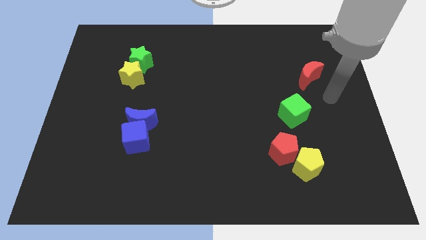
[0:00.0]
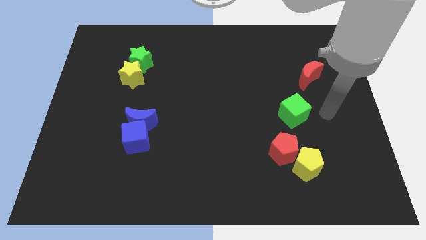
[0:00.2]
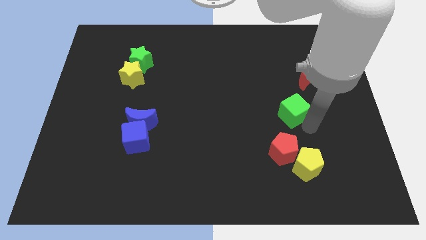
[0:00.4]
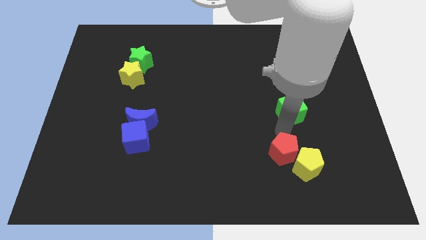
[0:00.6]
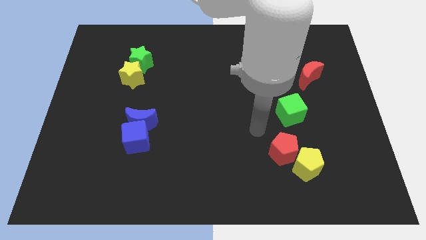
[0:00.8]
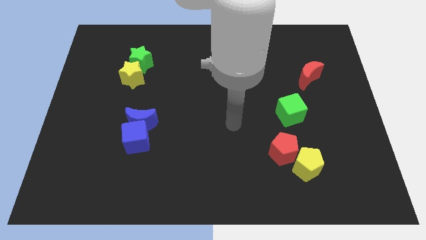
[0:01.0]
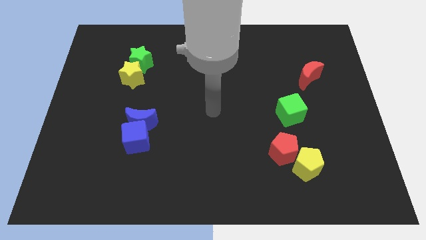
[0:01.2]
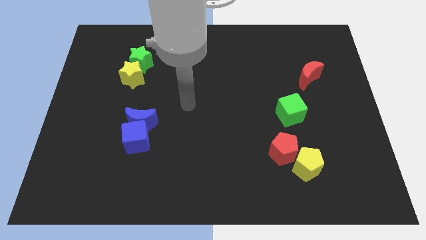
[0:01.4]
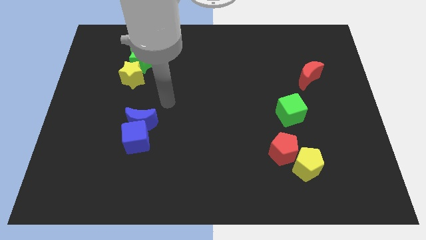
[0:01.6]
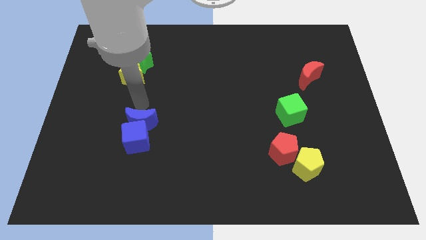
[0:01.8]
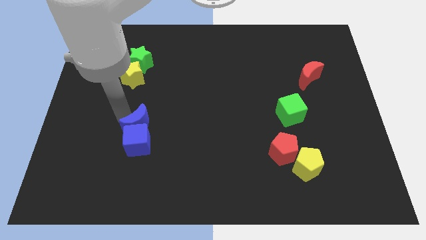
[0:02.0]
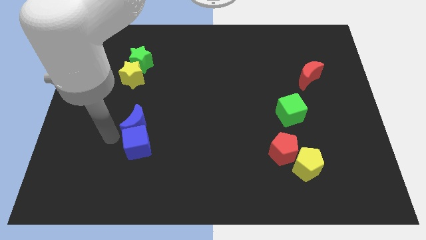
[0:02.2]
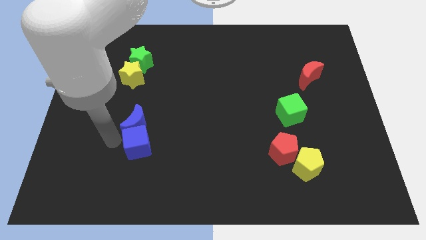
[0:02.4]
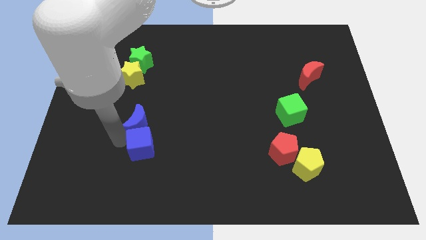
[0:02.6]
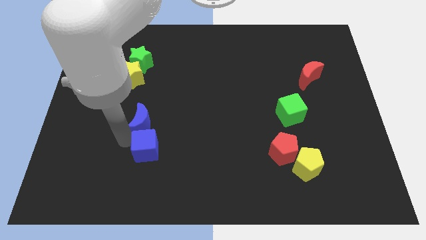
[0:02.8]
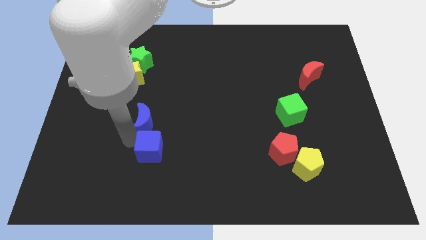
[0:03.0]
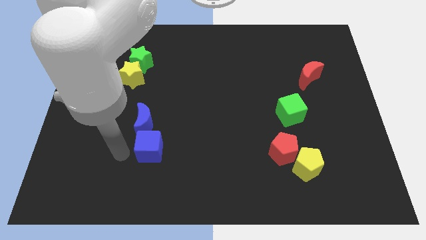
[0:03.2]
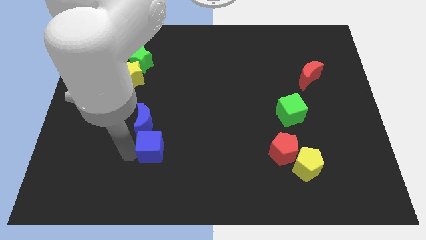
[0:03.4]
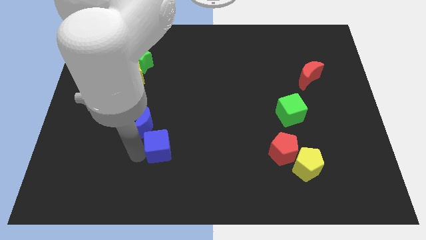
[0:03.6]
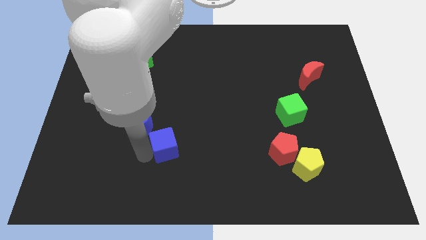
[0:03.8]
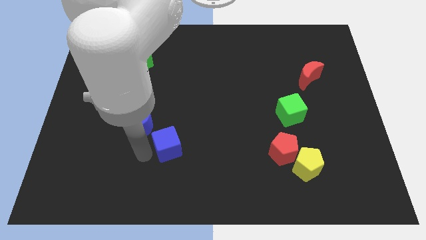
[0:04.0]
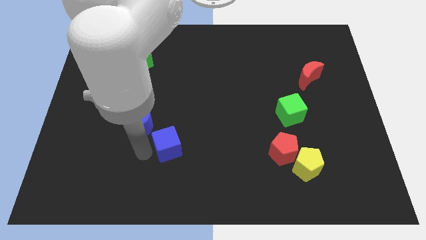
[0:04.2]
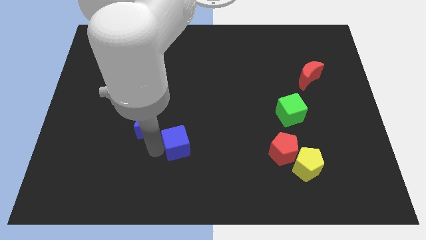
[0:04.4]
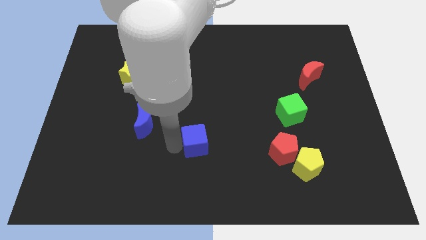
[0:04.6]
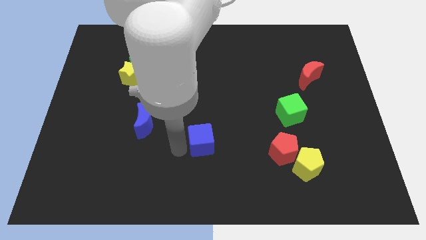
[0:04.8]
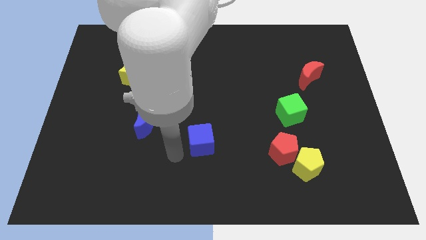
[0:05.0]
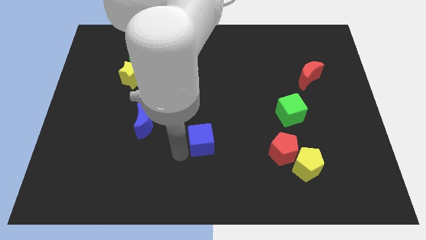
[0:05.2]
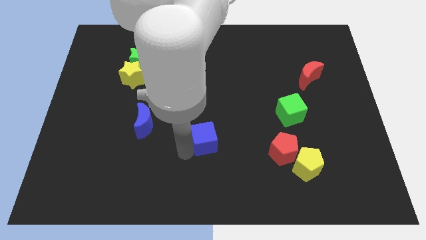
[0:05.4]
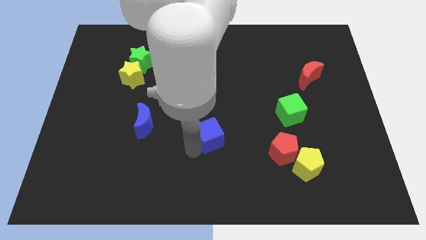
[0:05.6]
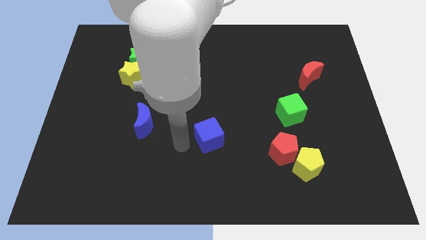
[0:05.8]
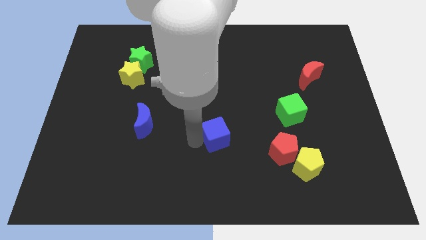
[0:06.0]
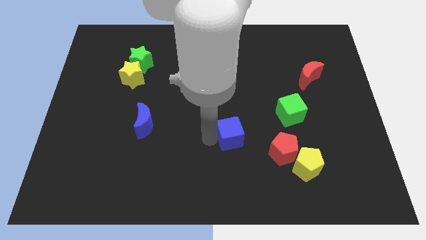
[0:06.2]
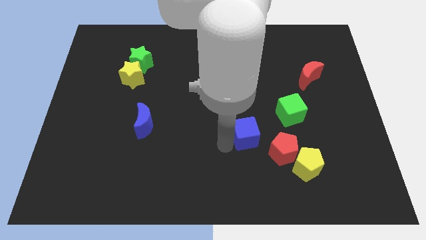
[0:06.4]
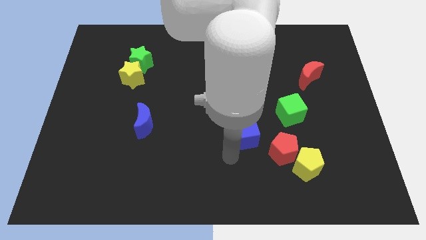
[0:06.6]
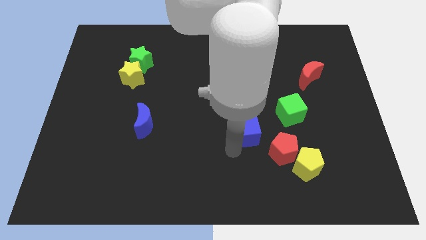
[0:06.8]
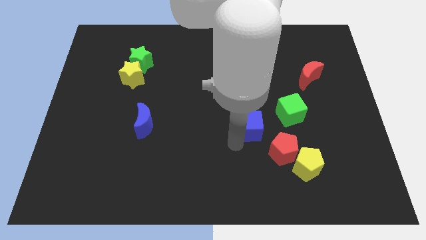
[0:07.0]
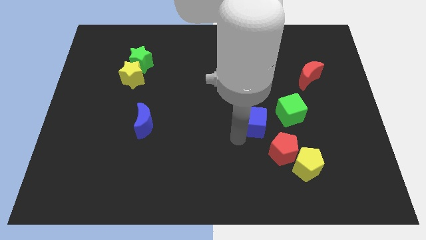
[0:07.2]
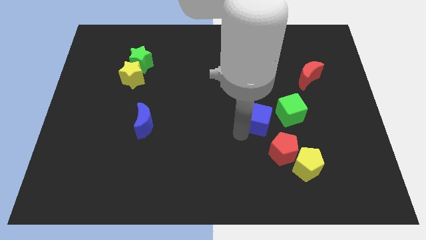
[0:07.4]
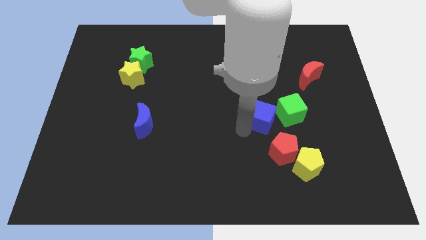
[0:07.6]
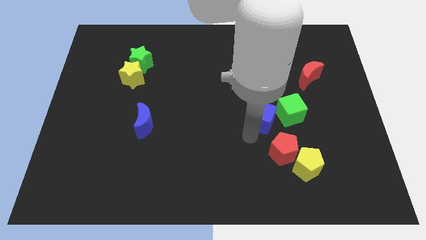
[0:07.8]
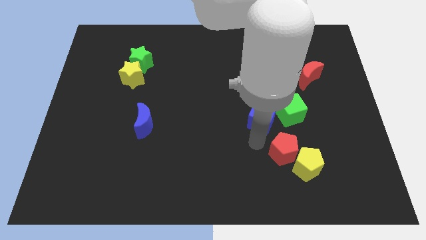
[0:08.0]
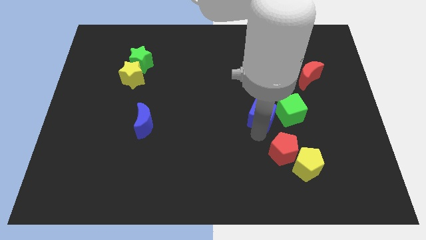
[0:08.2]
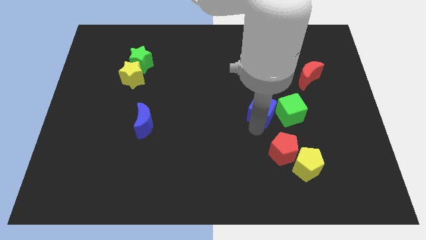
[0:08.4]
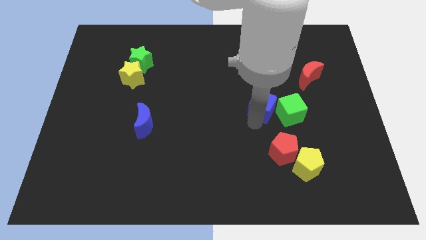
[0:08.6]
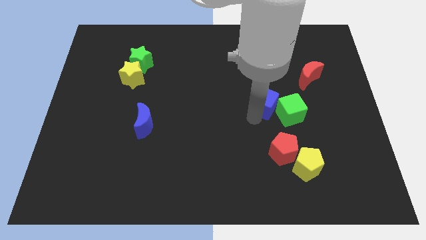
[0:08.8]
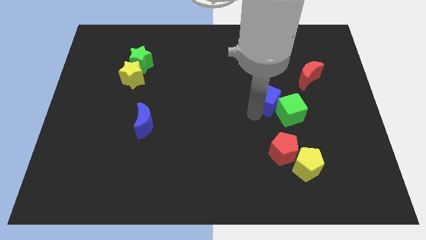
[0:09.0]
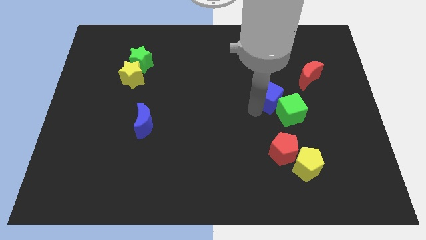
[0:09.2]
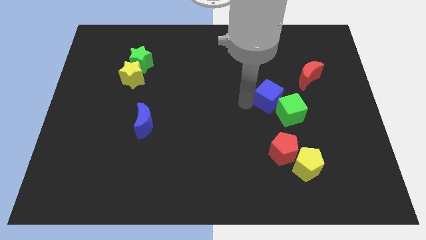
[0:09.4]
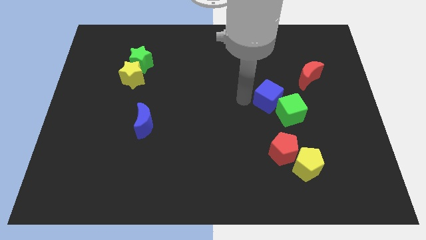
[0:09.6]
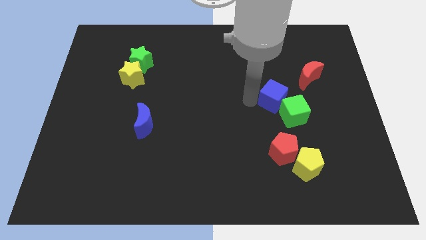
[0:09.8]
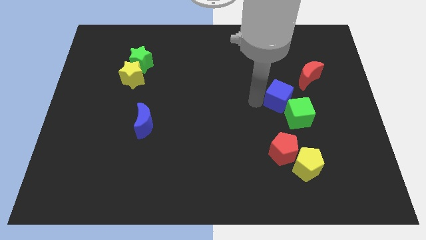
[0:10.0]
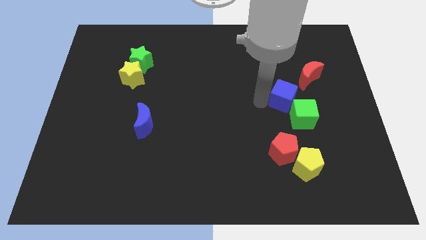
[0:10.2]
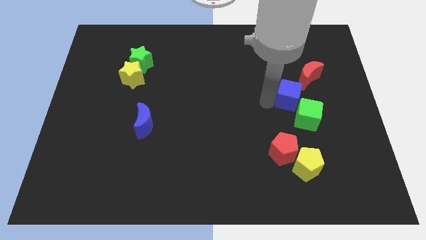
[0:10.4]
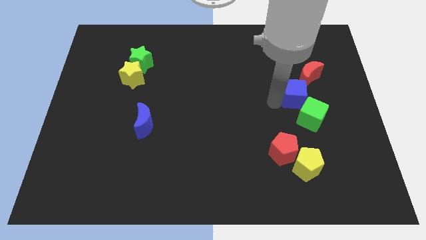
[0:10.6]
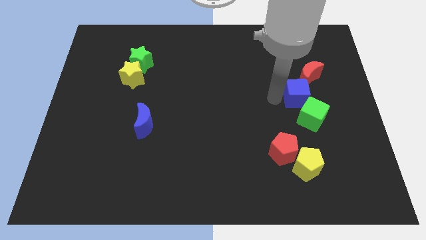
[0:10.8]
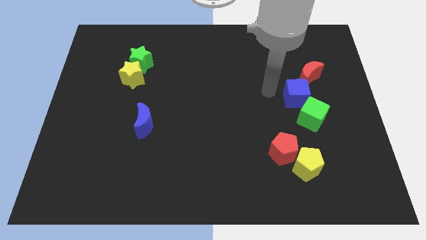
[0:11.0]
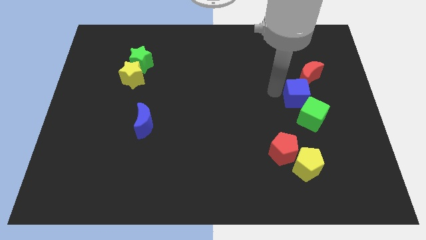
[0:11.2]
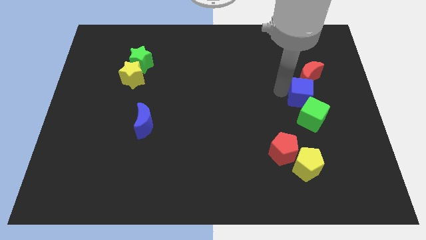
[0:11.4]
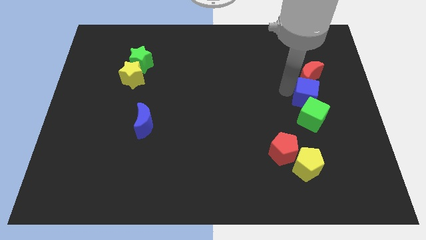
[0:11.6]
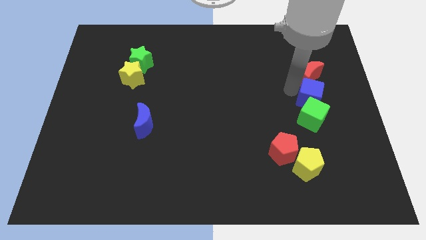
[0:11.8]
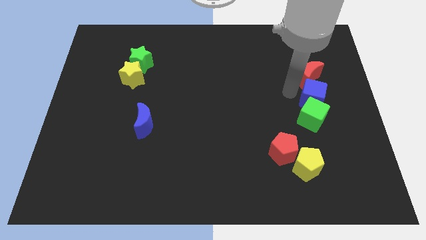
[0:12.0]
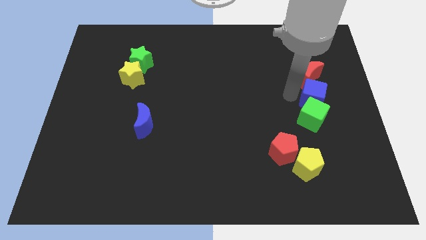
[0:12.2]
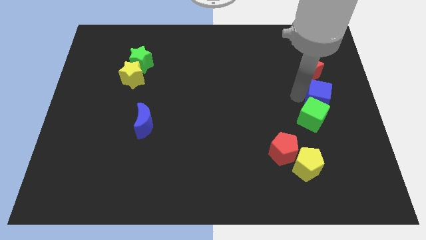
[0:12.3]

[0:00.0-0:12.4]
push the blue cube to the right side
